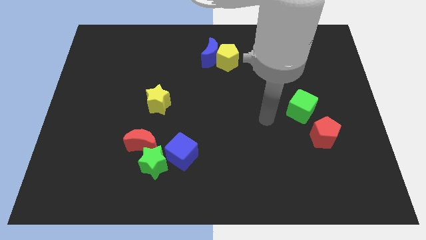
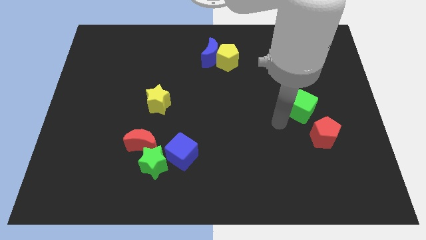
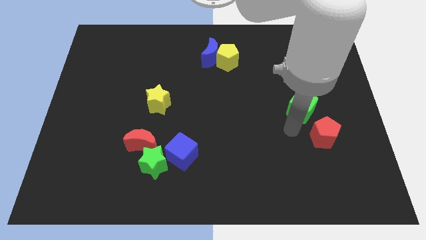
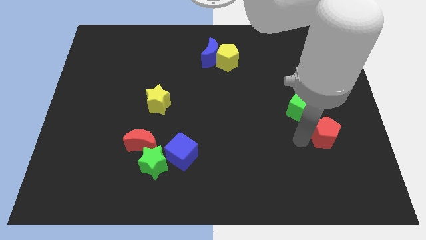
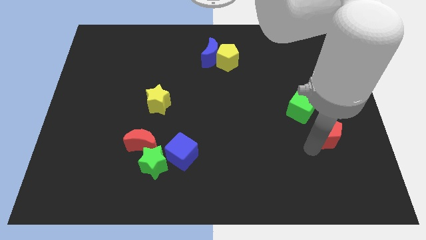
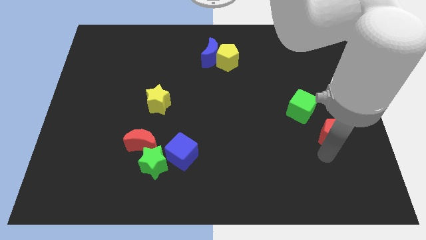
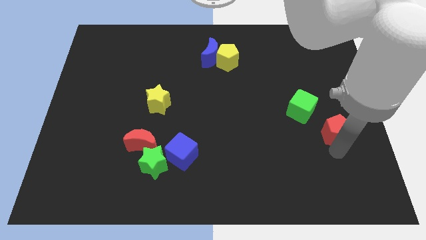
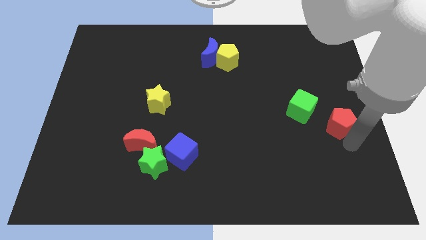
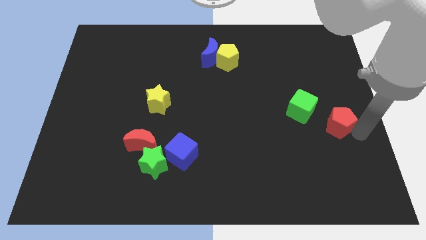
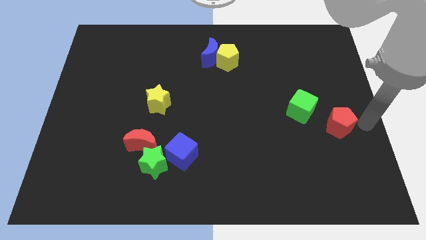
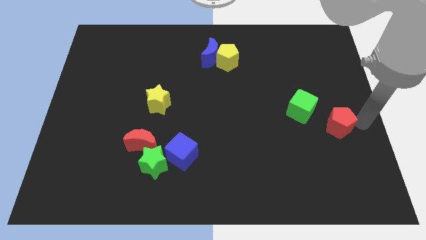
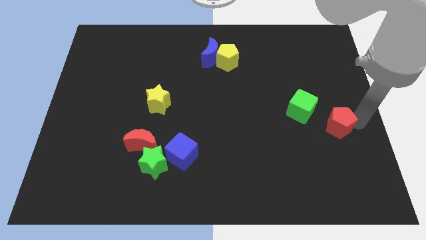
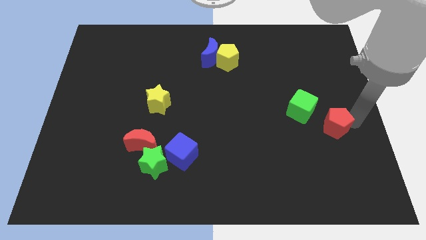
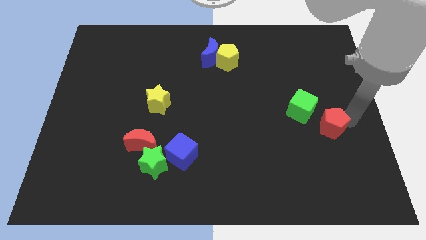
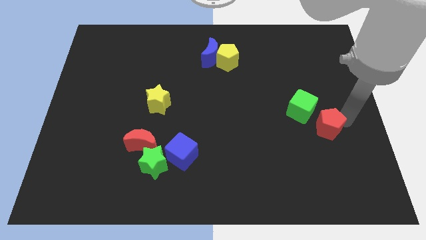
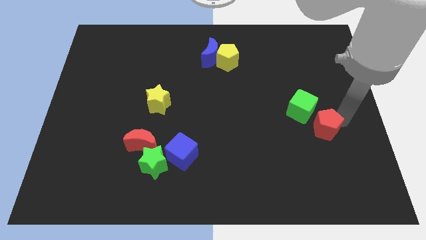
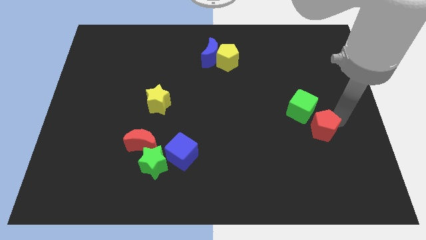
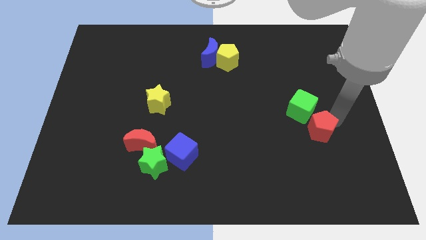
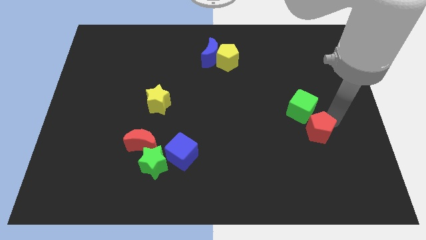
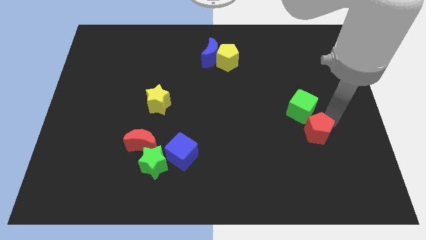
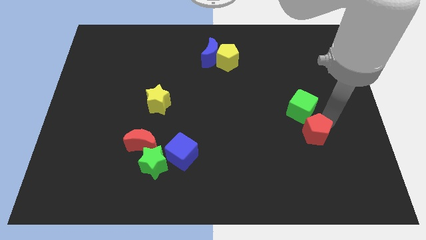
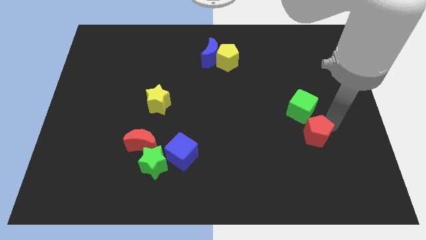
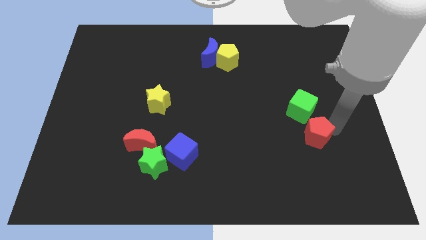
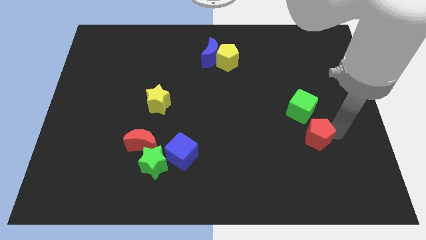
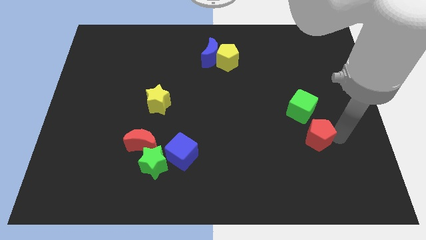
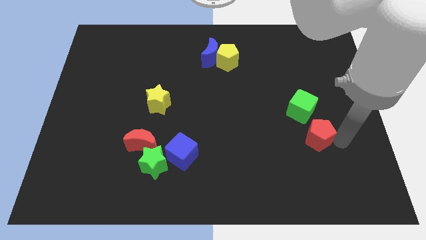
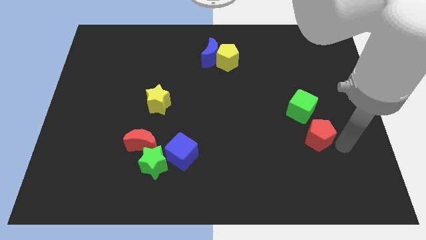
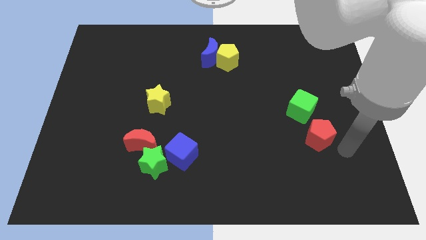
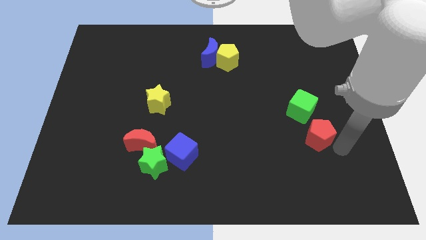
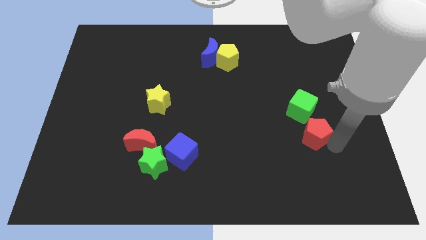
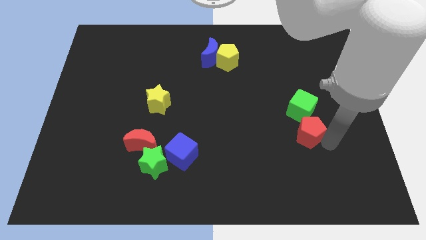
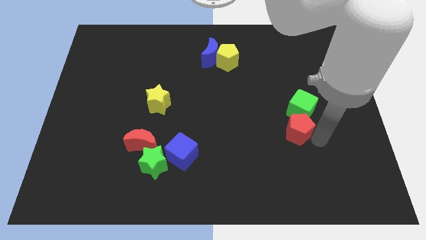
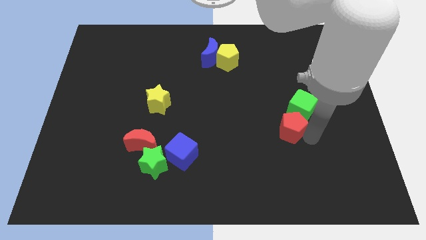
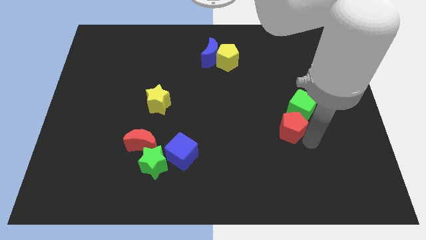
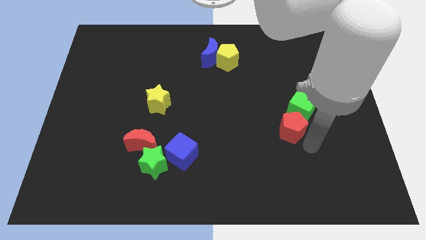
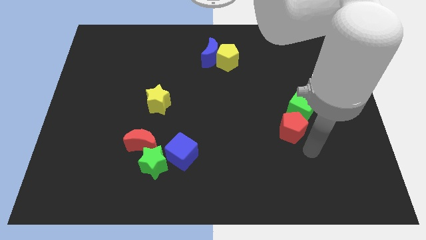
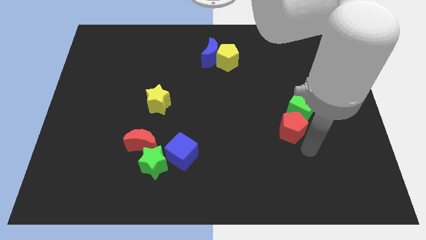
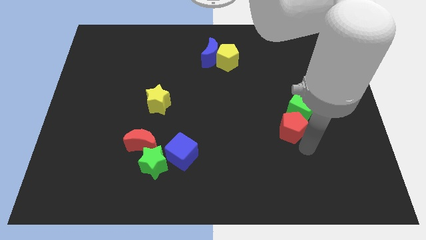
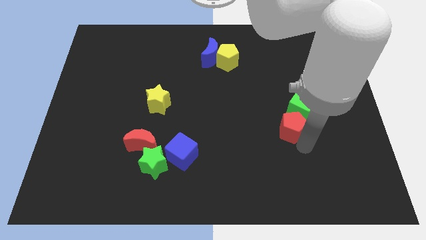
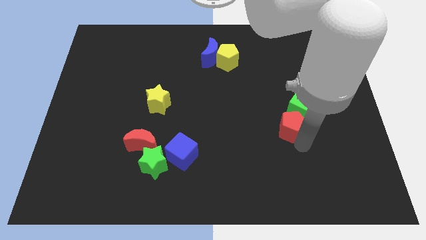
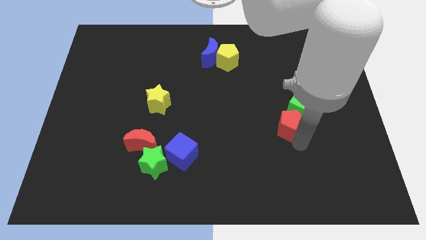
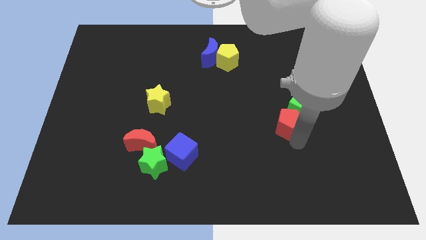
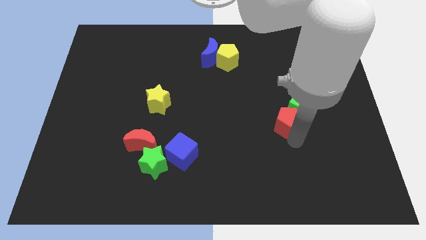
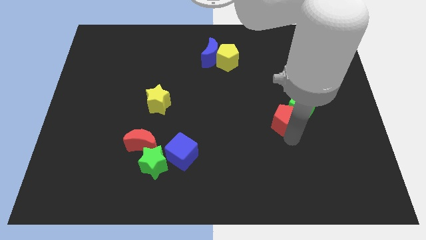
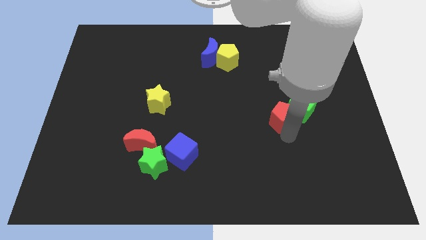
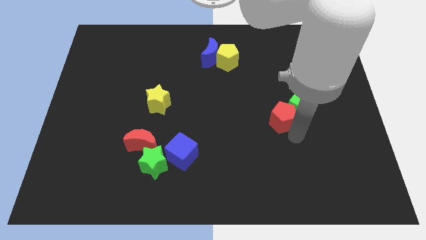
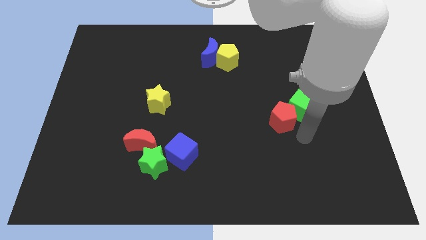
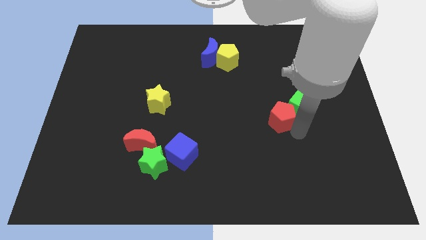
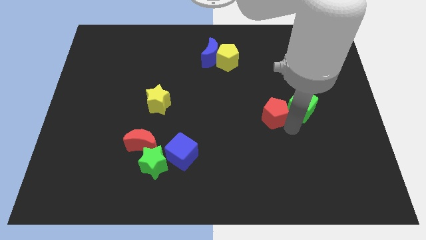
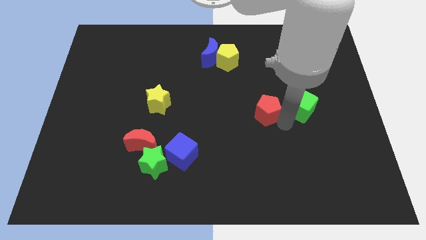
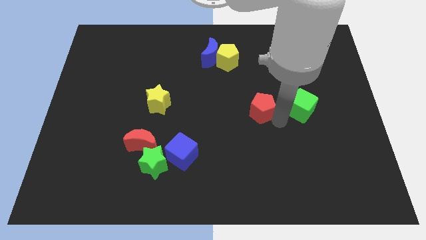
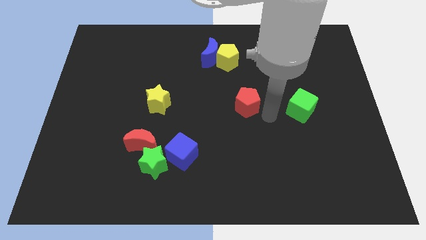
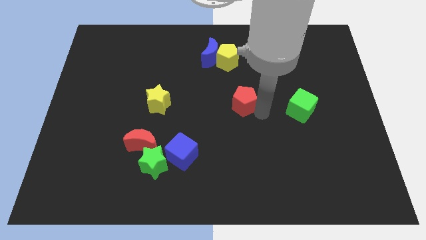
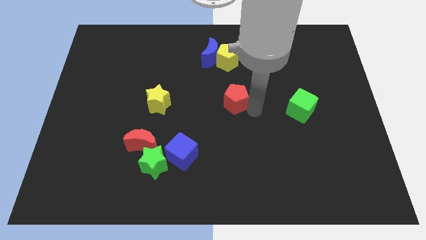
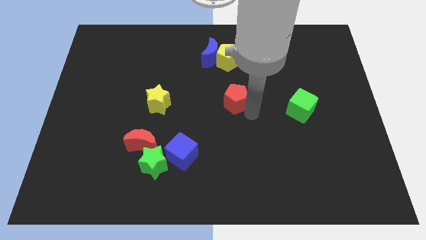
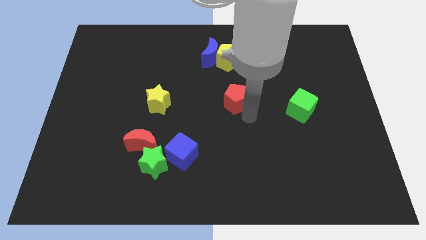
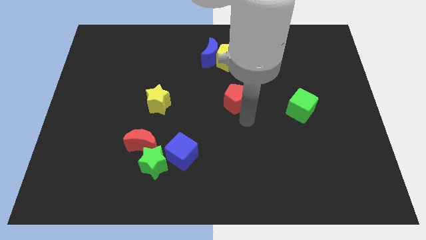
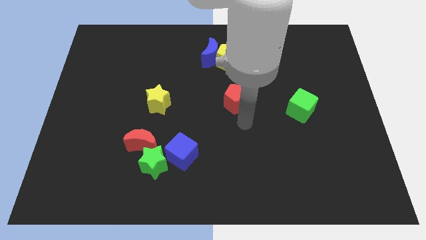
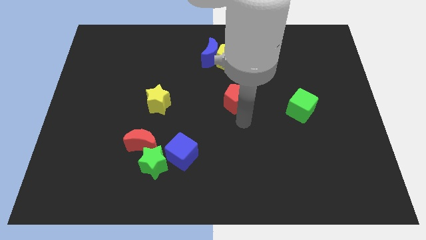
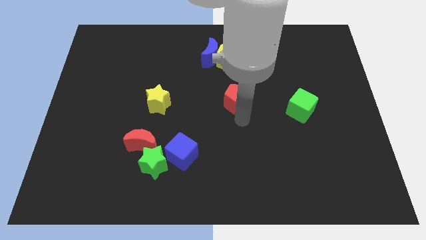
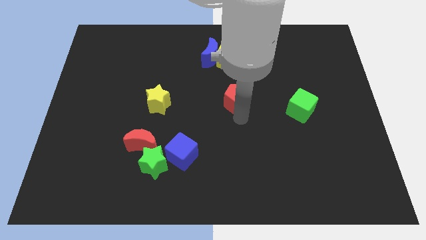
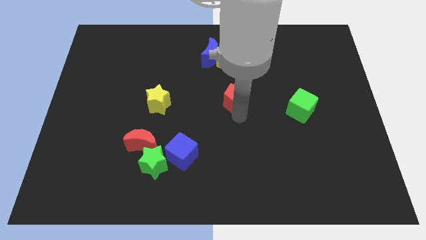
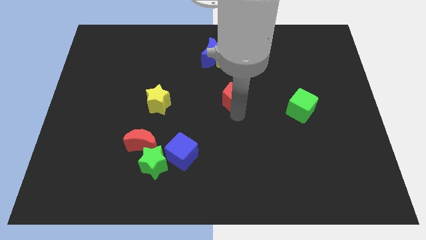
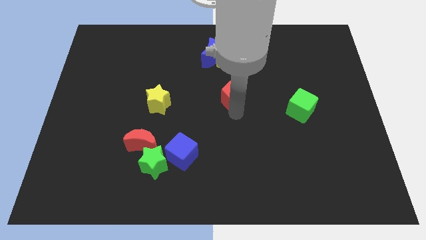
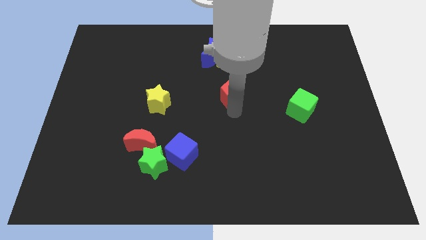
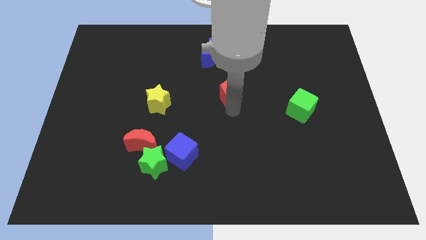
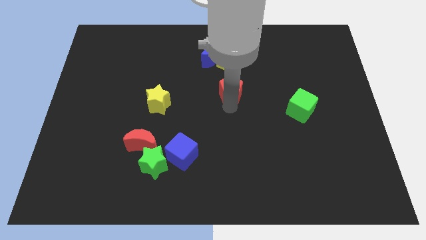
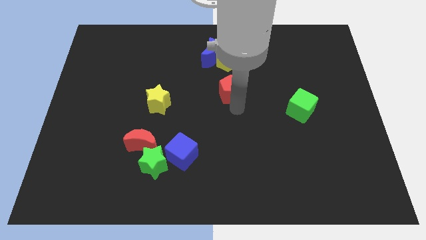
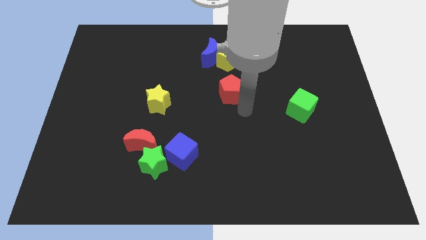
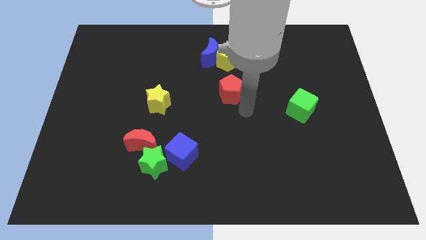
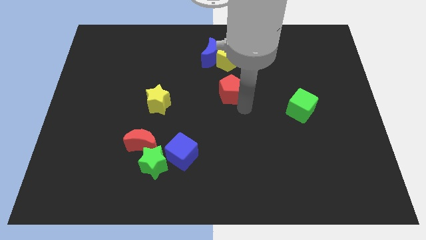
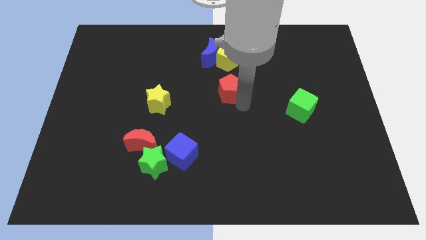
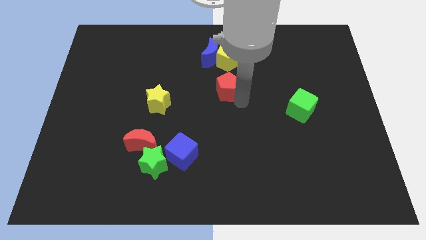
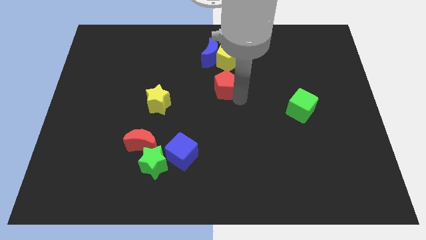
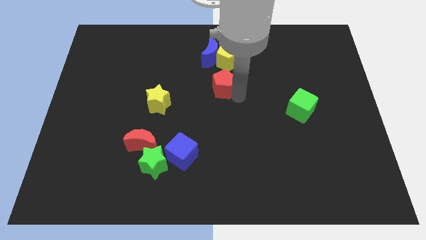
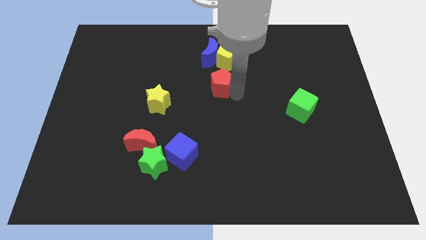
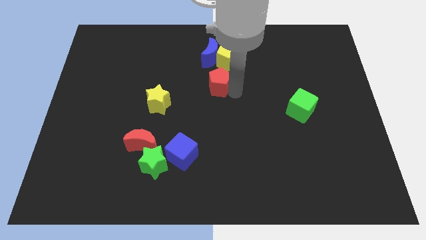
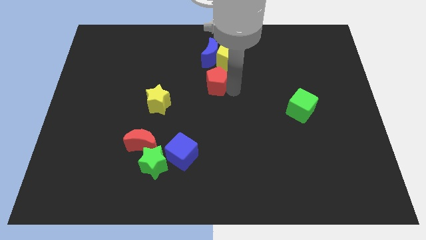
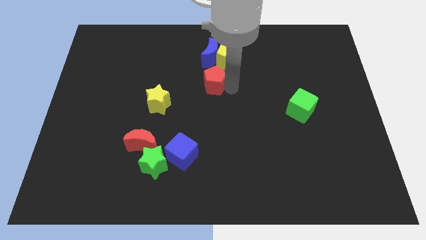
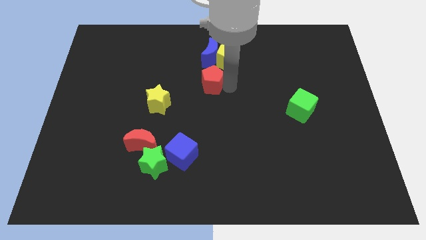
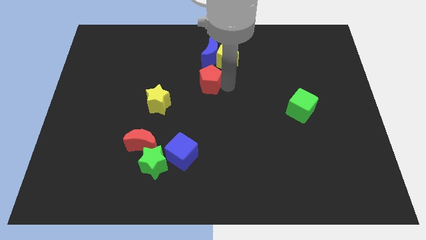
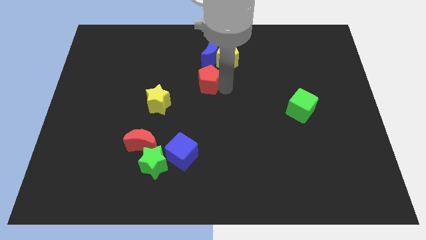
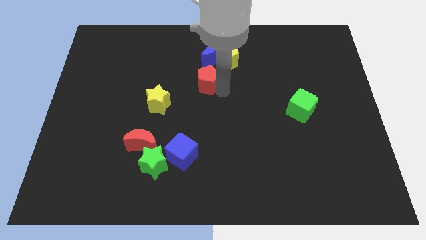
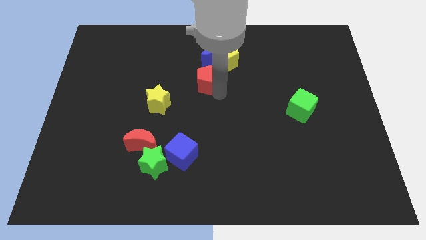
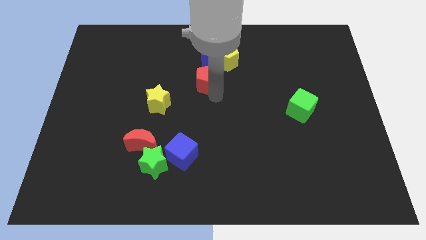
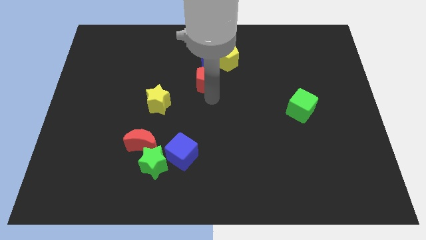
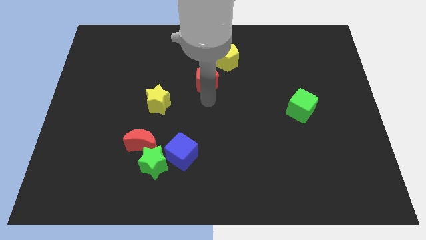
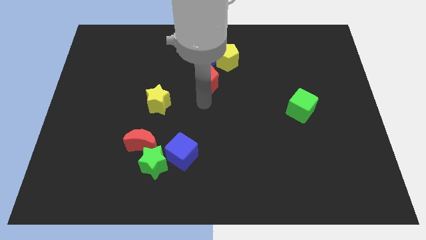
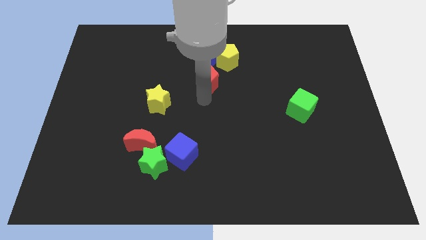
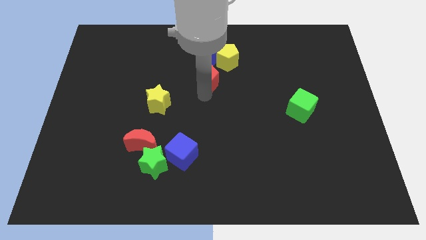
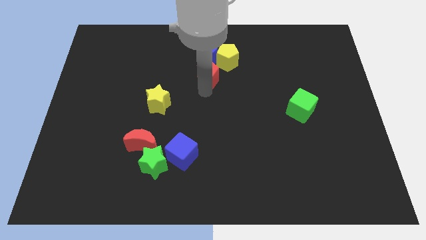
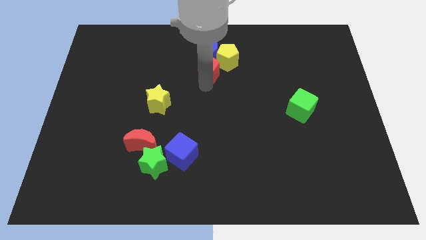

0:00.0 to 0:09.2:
push the red pentagon towards the blue moon
